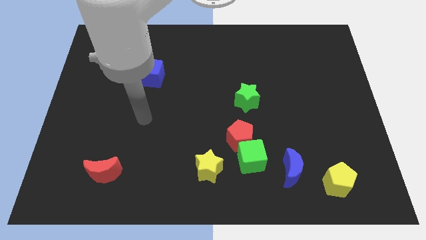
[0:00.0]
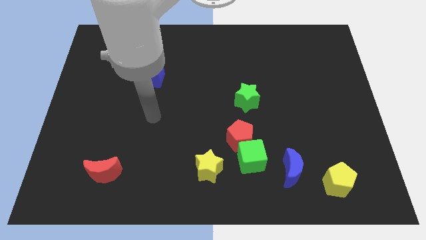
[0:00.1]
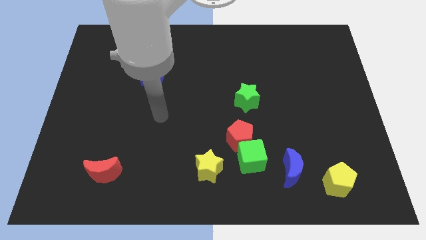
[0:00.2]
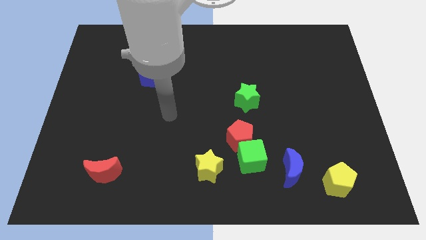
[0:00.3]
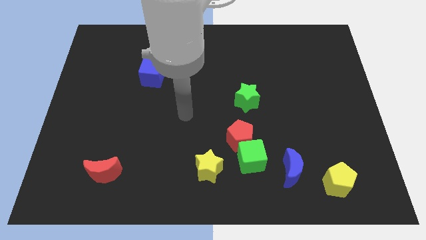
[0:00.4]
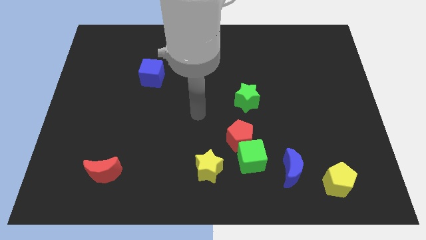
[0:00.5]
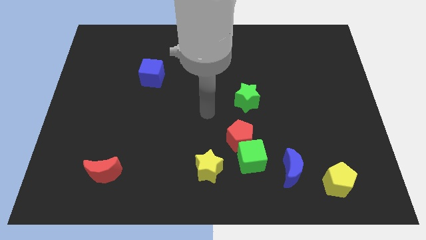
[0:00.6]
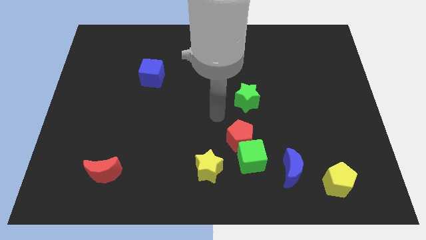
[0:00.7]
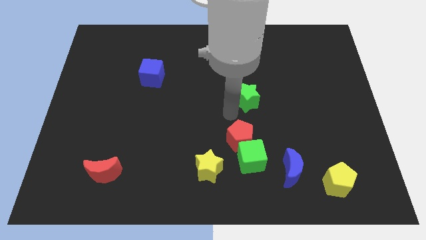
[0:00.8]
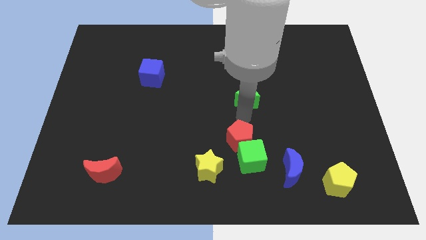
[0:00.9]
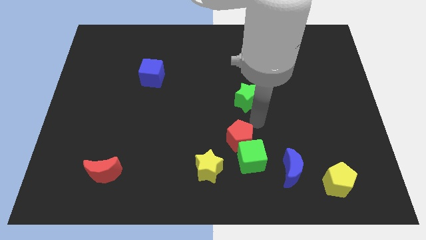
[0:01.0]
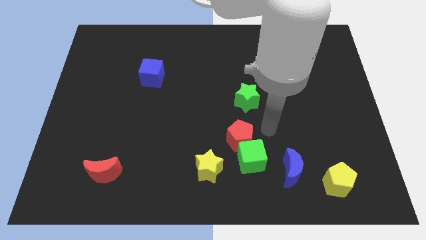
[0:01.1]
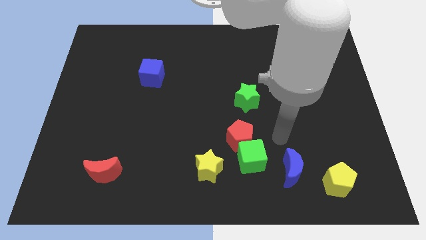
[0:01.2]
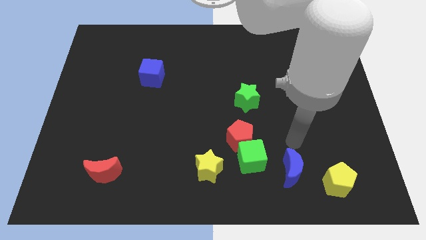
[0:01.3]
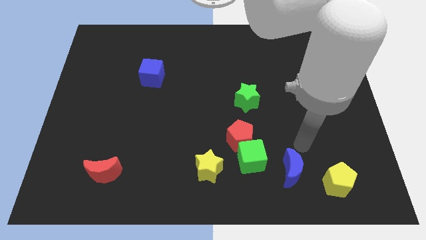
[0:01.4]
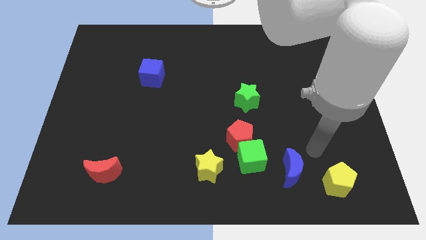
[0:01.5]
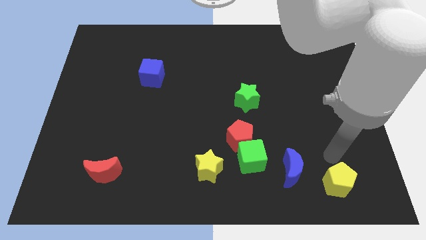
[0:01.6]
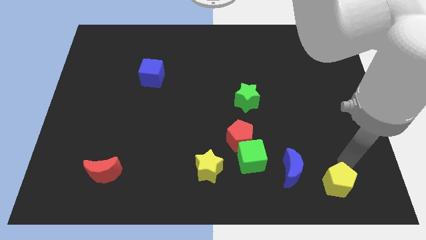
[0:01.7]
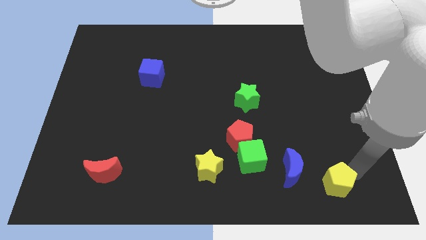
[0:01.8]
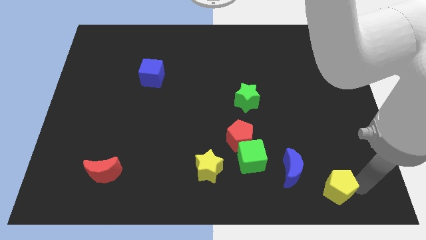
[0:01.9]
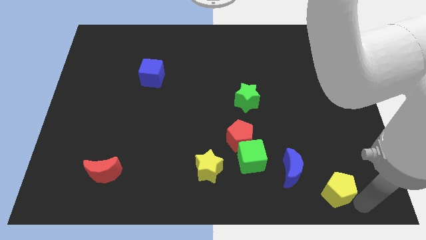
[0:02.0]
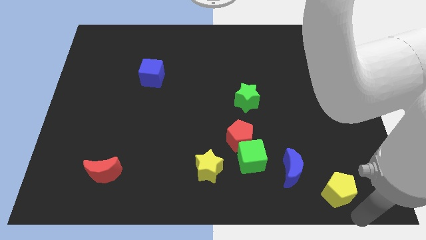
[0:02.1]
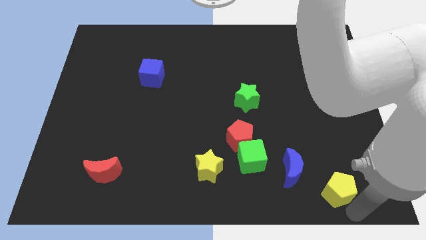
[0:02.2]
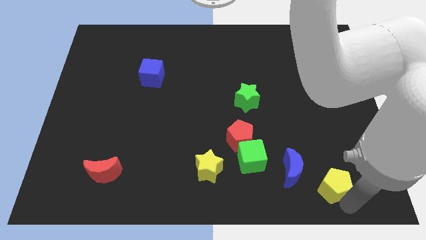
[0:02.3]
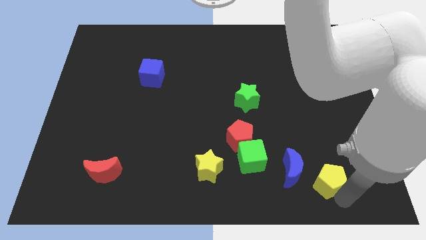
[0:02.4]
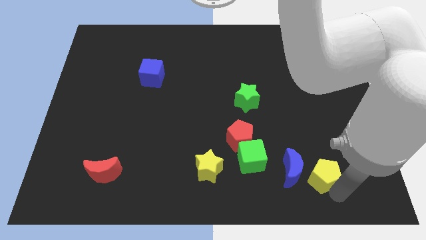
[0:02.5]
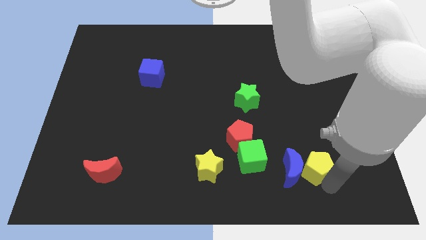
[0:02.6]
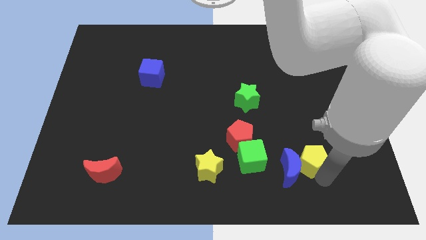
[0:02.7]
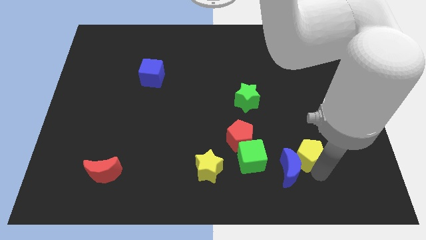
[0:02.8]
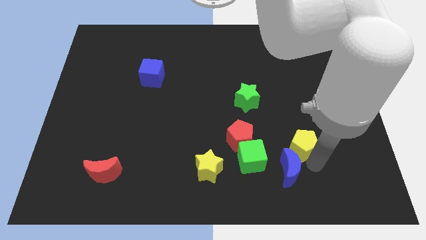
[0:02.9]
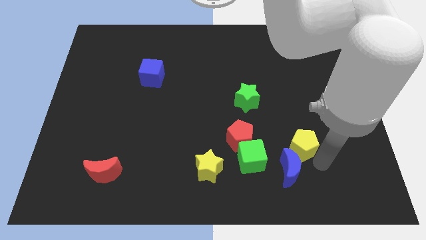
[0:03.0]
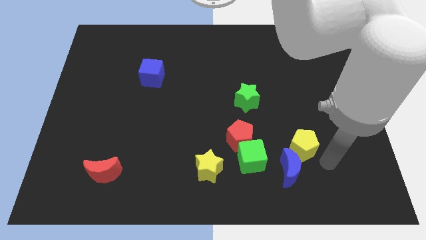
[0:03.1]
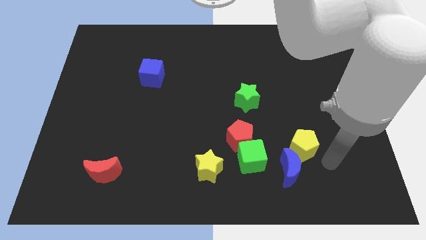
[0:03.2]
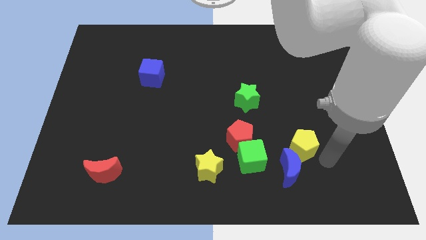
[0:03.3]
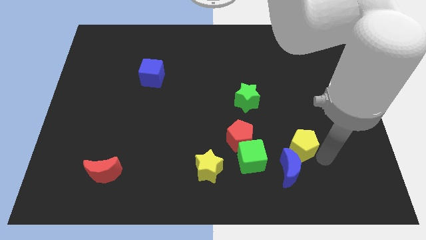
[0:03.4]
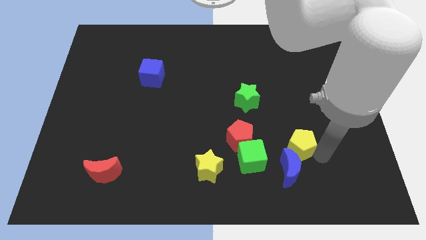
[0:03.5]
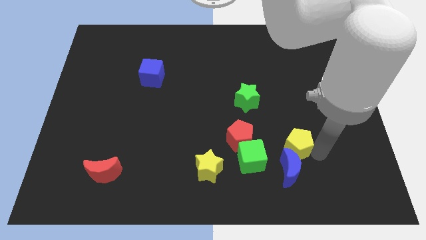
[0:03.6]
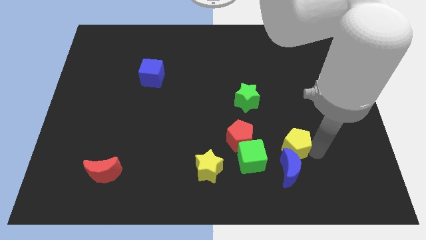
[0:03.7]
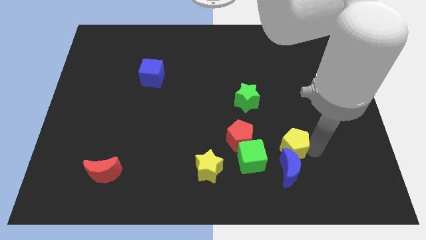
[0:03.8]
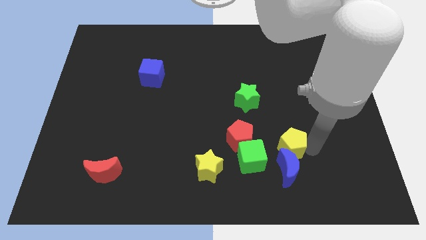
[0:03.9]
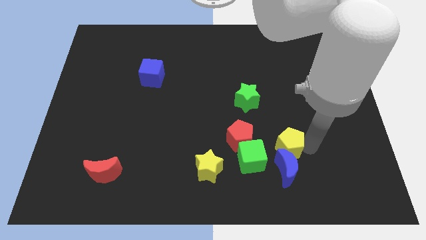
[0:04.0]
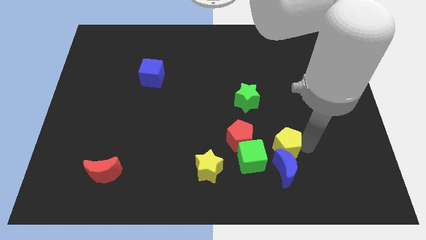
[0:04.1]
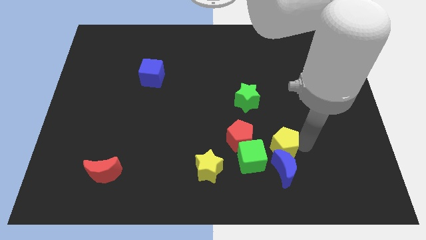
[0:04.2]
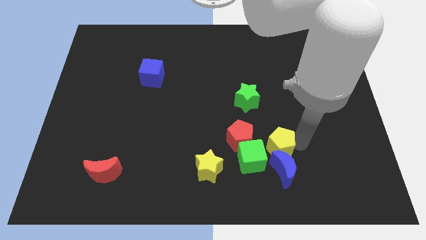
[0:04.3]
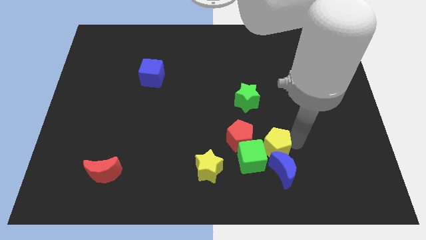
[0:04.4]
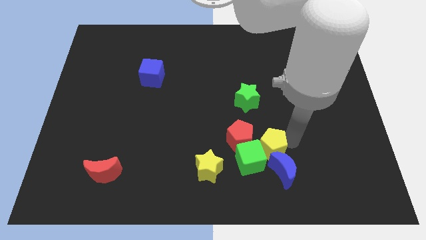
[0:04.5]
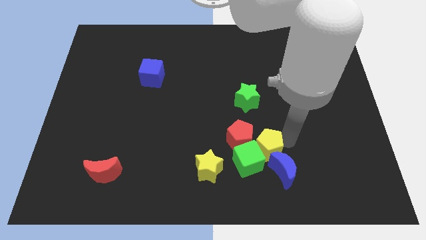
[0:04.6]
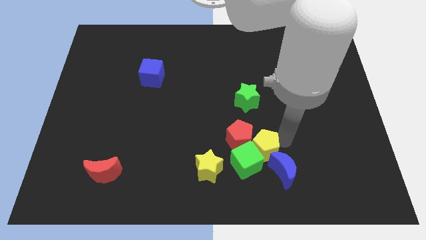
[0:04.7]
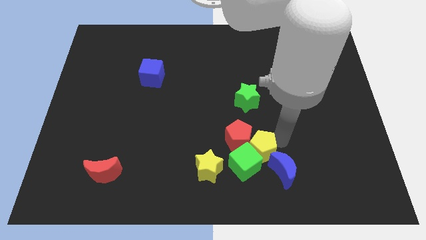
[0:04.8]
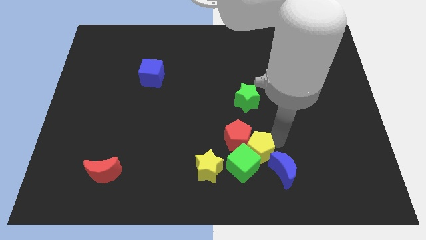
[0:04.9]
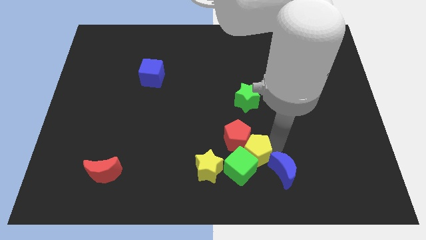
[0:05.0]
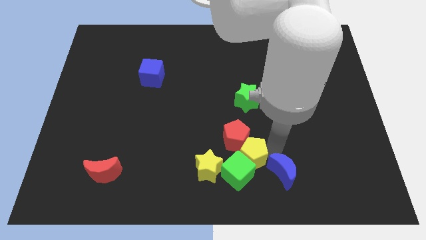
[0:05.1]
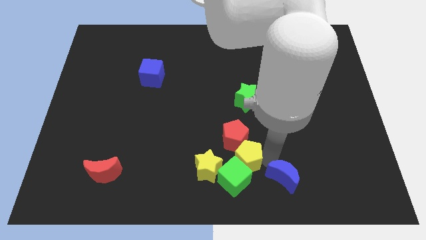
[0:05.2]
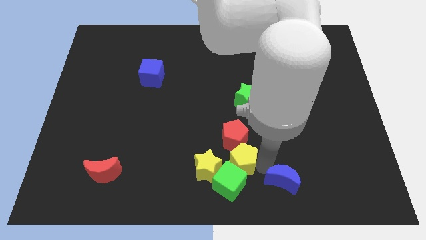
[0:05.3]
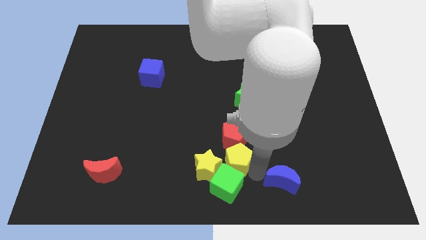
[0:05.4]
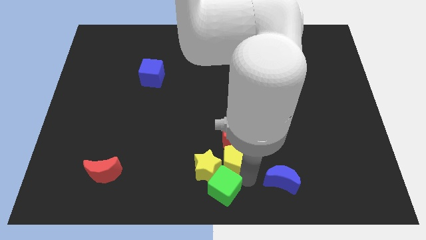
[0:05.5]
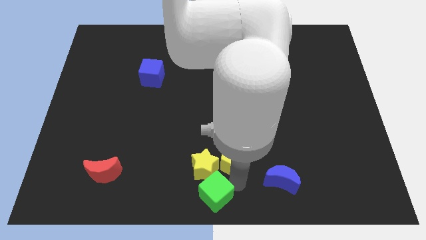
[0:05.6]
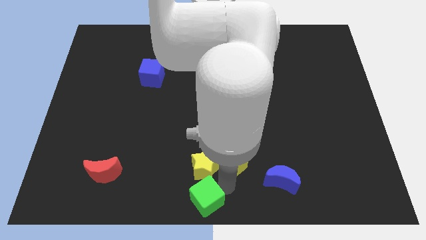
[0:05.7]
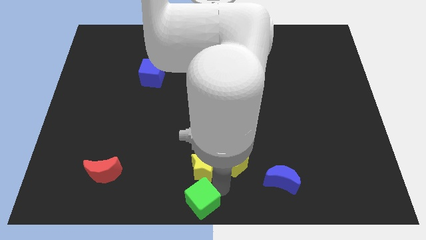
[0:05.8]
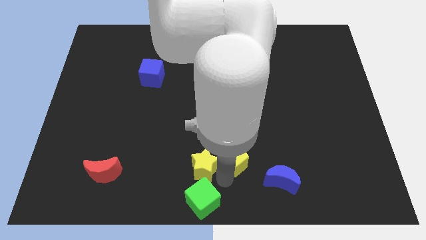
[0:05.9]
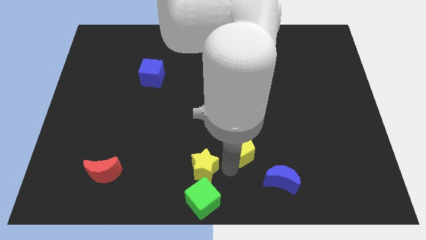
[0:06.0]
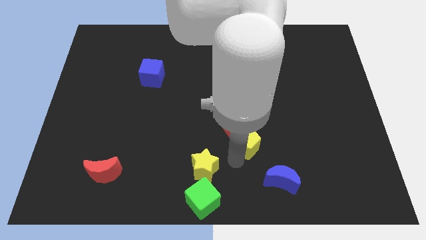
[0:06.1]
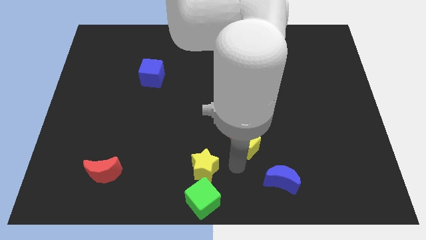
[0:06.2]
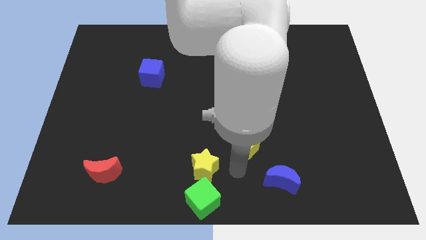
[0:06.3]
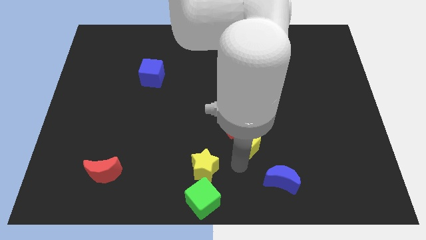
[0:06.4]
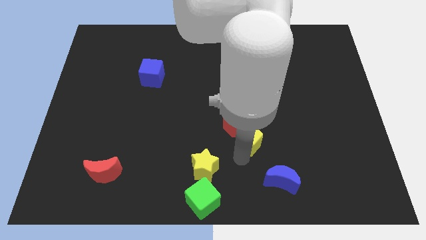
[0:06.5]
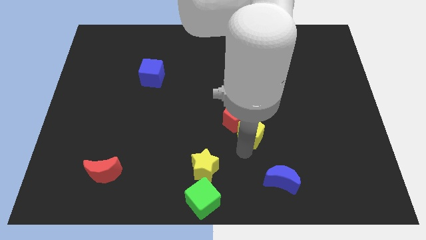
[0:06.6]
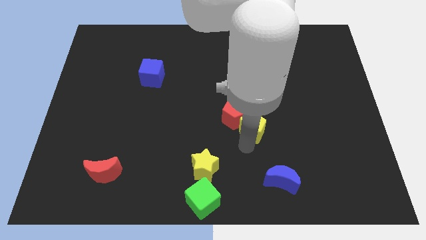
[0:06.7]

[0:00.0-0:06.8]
push the yellow pentagon up and to the left

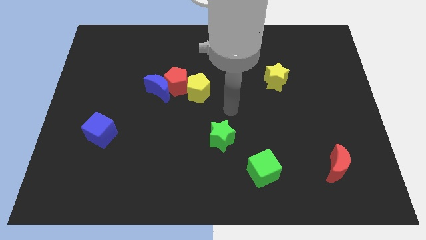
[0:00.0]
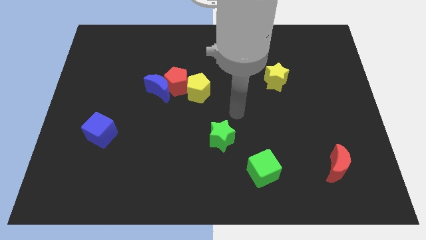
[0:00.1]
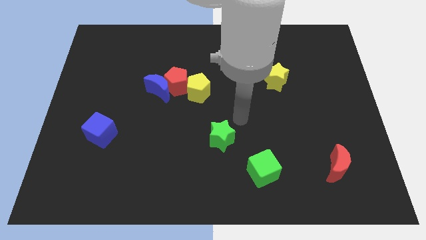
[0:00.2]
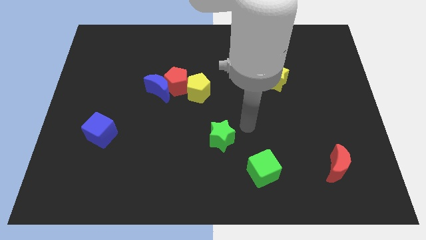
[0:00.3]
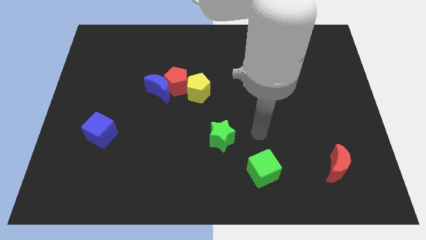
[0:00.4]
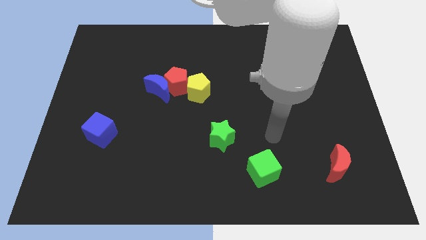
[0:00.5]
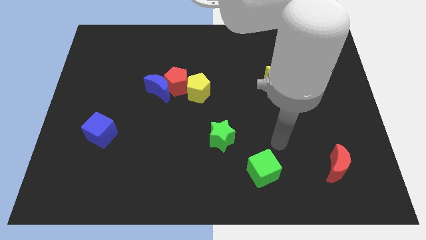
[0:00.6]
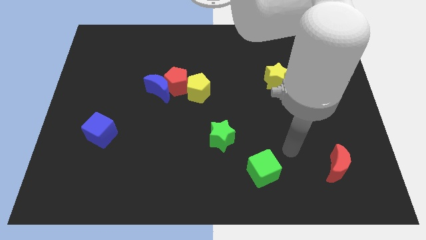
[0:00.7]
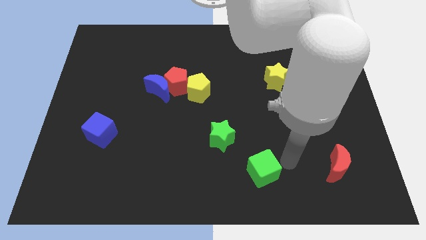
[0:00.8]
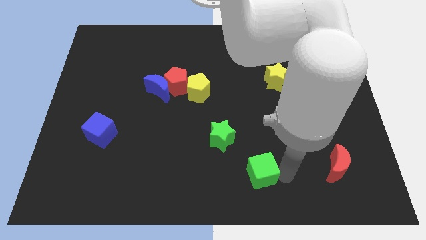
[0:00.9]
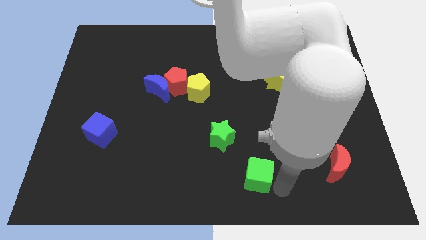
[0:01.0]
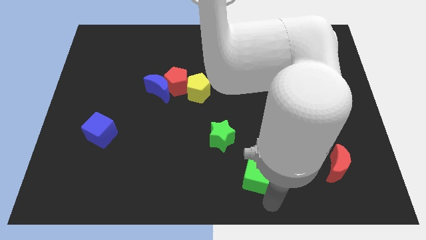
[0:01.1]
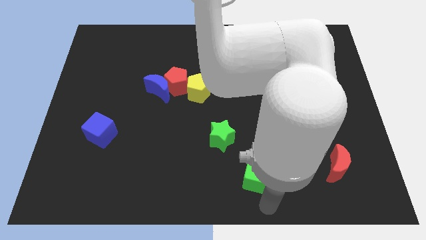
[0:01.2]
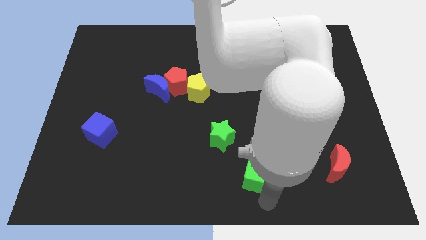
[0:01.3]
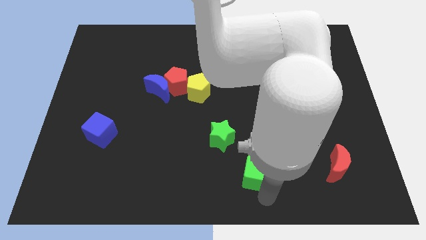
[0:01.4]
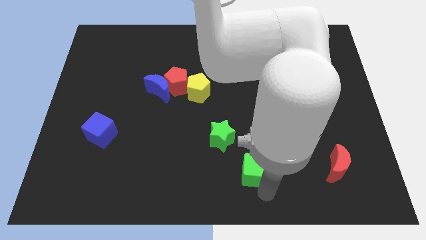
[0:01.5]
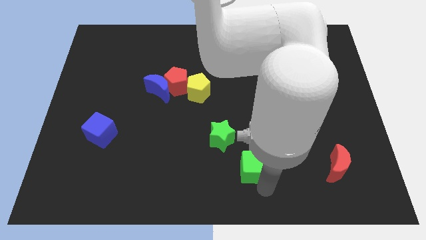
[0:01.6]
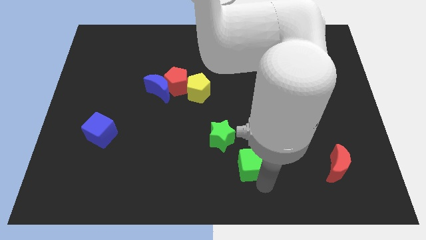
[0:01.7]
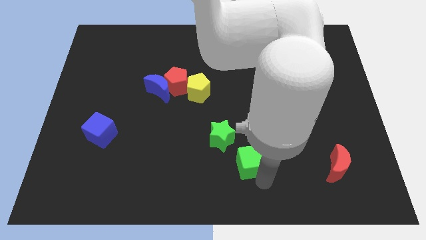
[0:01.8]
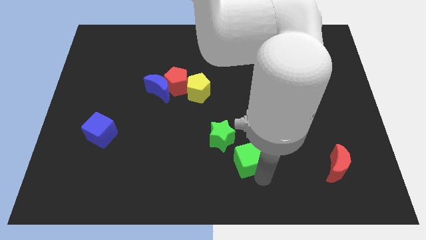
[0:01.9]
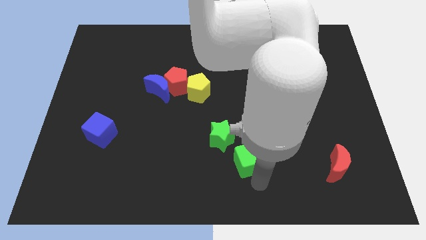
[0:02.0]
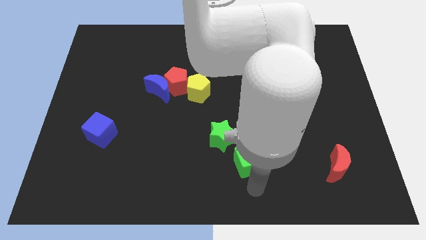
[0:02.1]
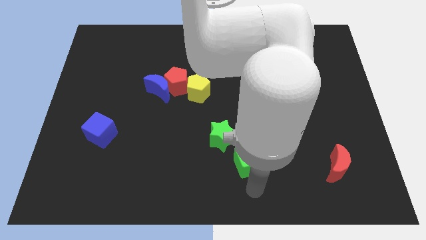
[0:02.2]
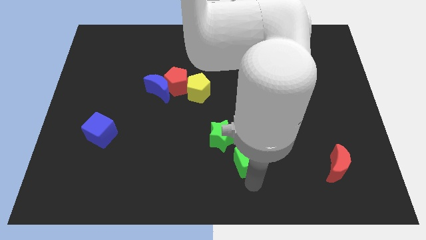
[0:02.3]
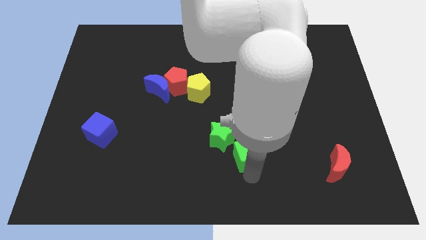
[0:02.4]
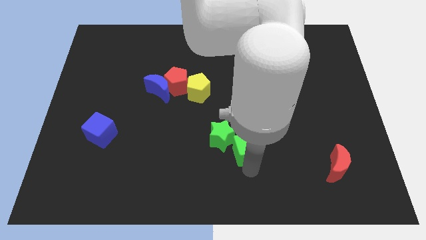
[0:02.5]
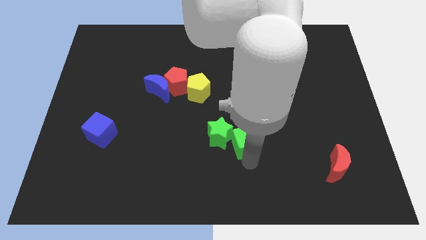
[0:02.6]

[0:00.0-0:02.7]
slightly move the green cube diagonally up and to the left
